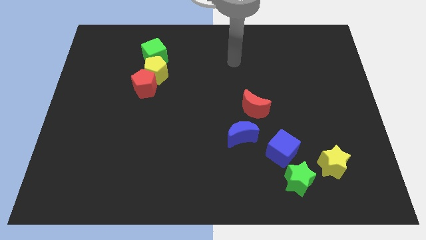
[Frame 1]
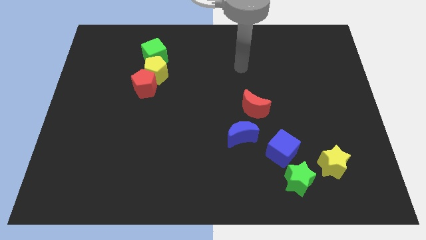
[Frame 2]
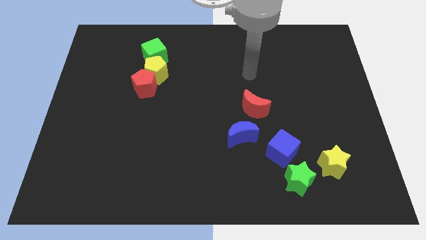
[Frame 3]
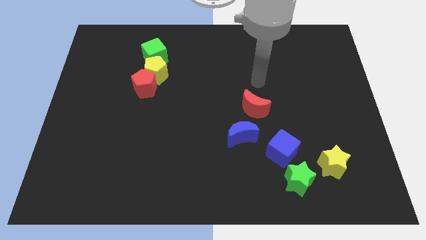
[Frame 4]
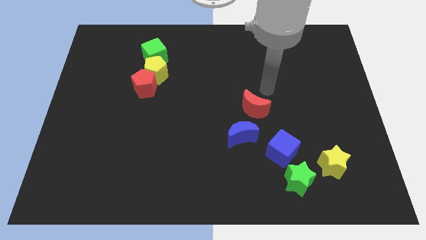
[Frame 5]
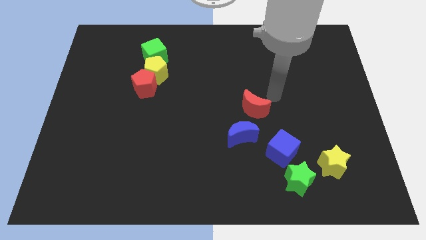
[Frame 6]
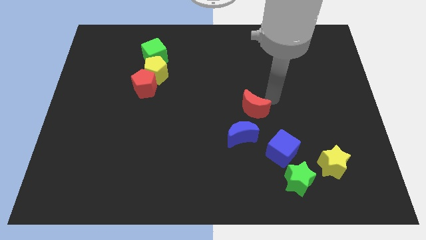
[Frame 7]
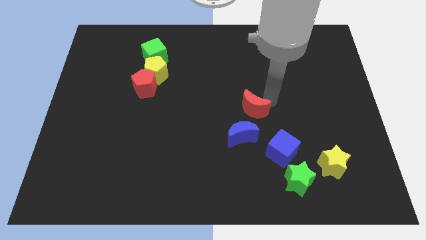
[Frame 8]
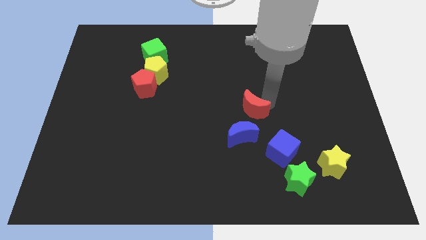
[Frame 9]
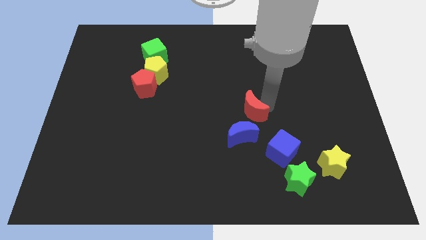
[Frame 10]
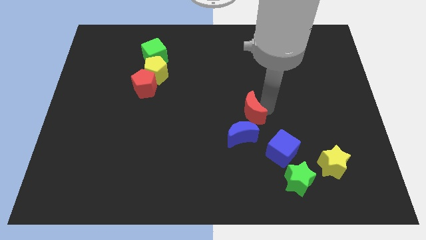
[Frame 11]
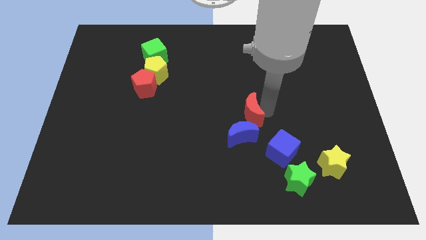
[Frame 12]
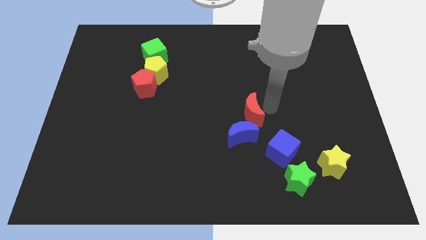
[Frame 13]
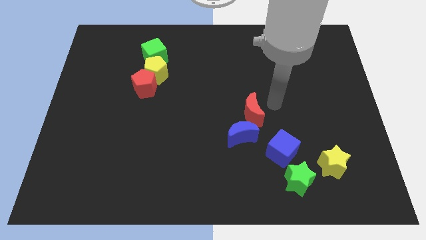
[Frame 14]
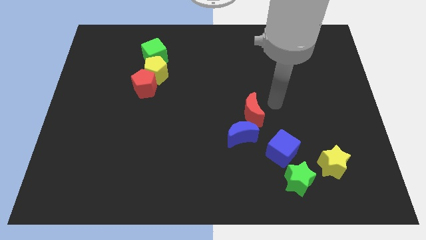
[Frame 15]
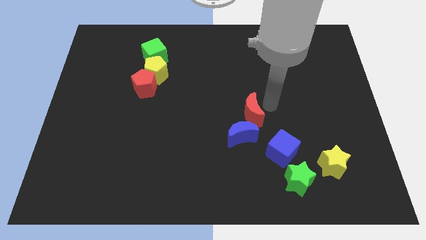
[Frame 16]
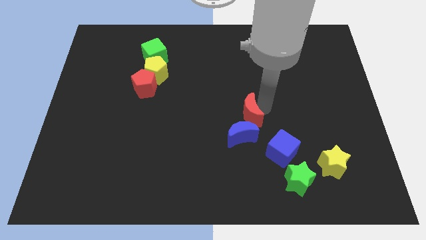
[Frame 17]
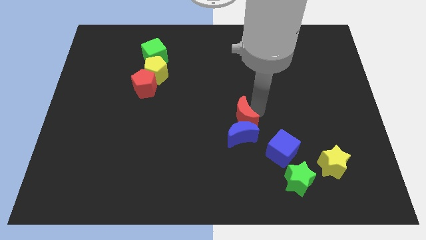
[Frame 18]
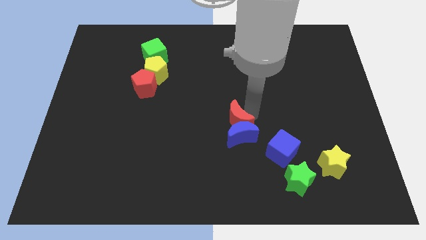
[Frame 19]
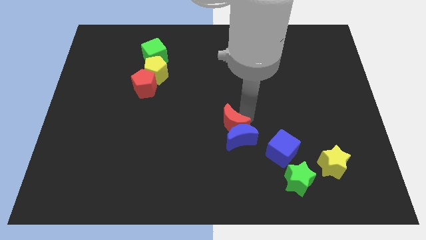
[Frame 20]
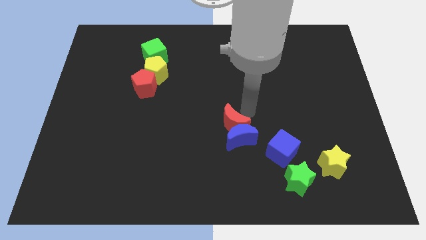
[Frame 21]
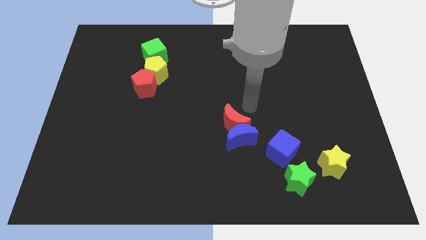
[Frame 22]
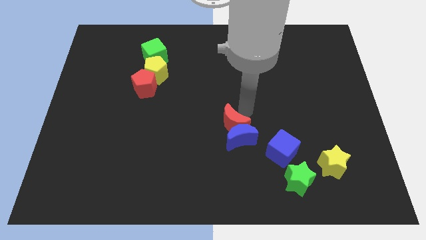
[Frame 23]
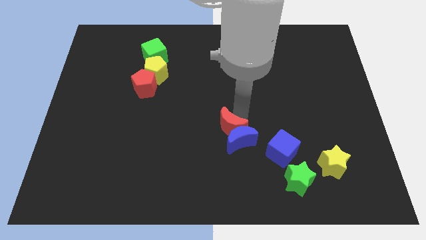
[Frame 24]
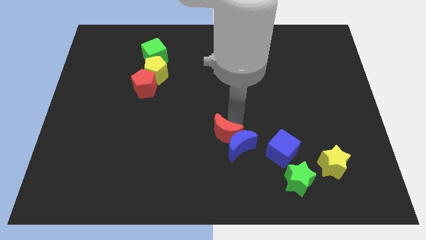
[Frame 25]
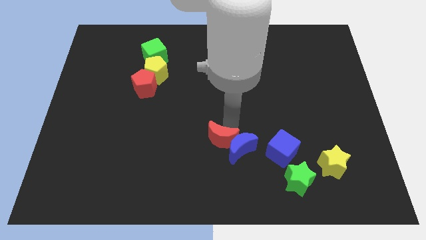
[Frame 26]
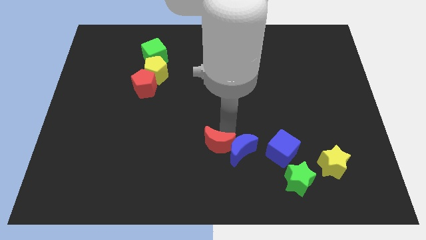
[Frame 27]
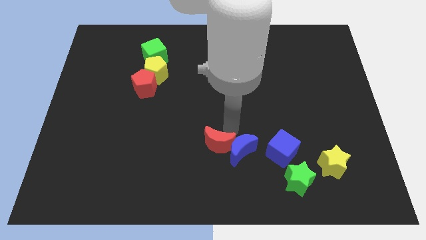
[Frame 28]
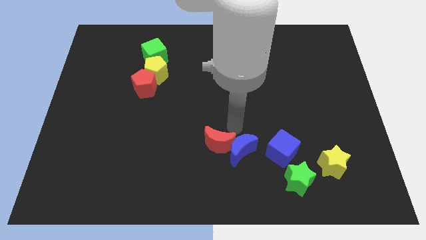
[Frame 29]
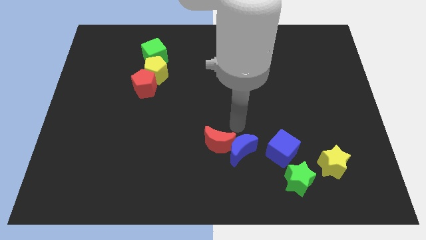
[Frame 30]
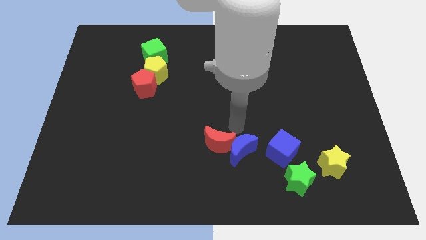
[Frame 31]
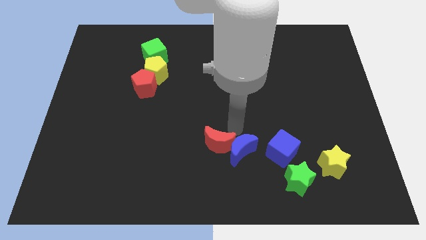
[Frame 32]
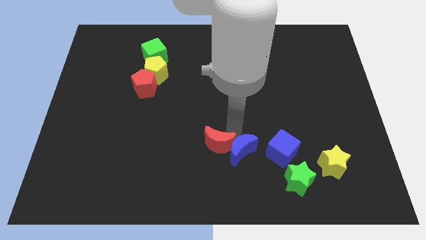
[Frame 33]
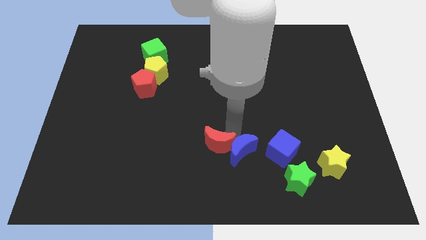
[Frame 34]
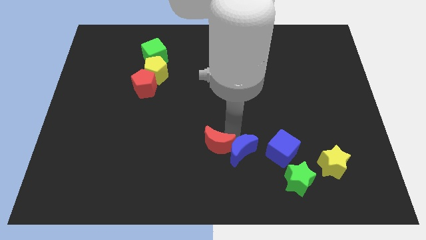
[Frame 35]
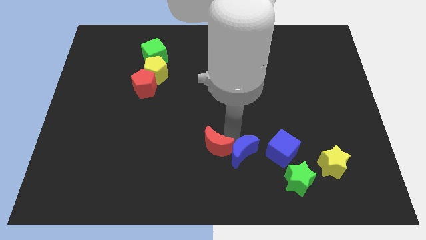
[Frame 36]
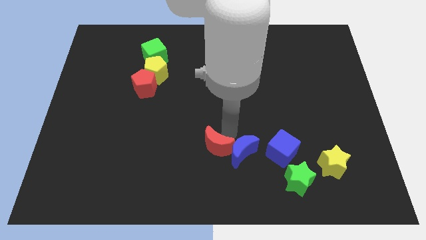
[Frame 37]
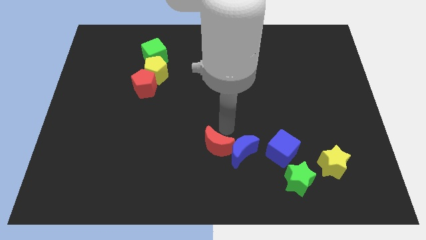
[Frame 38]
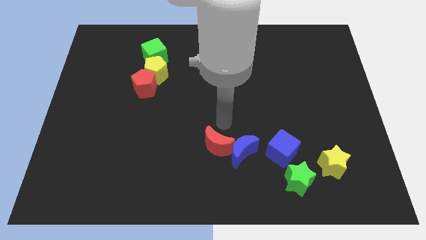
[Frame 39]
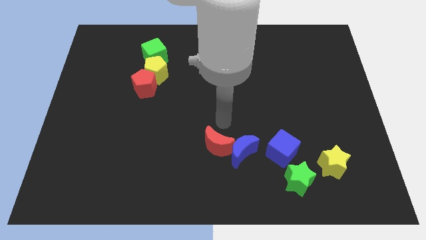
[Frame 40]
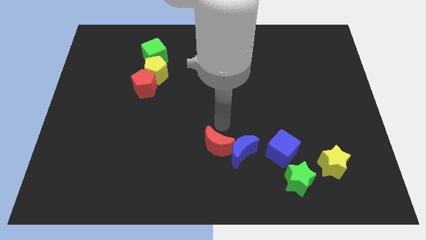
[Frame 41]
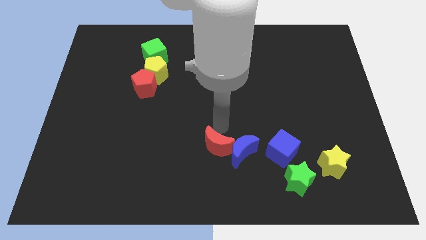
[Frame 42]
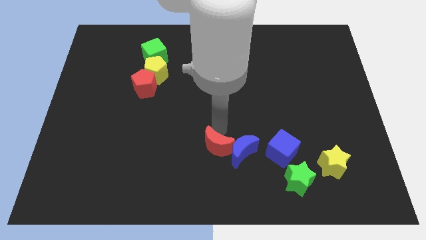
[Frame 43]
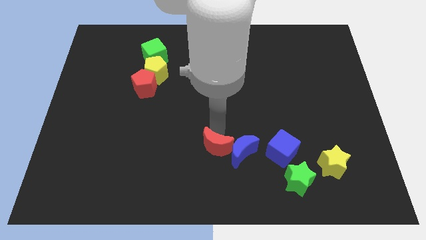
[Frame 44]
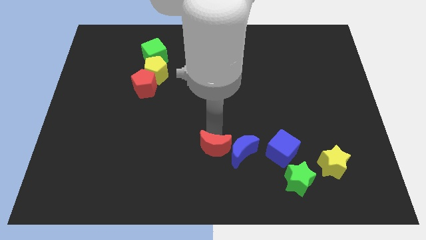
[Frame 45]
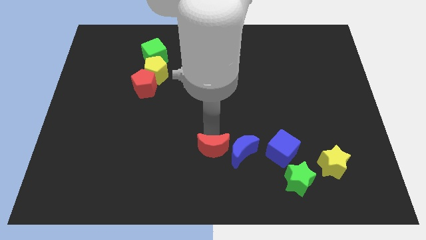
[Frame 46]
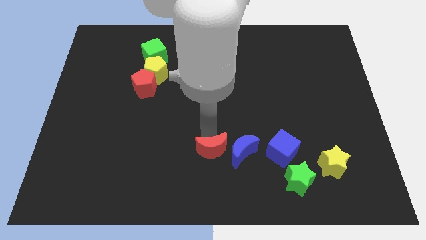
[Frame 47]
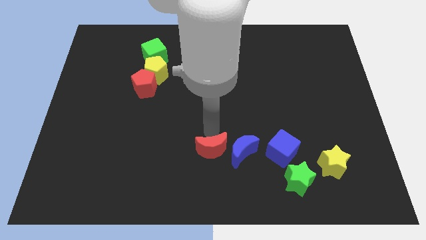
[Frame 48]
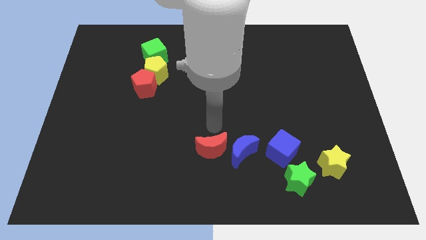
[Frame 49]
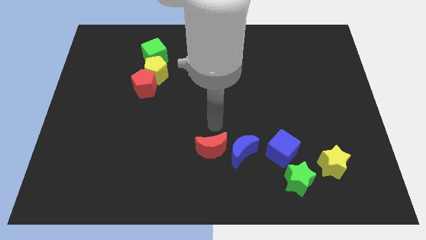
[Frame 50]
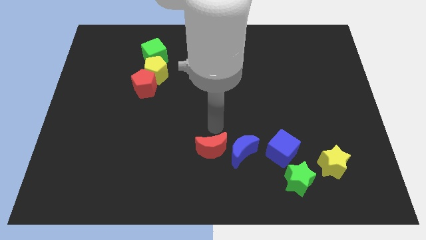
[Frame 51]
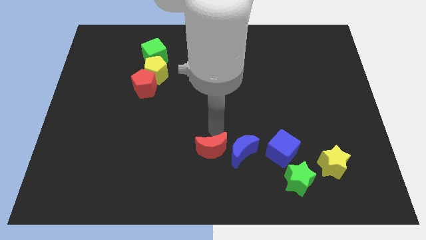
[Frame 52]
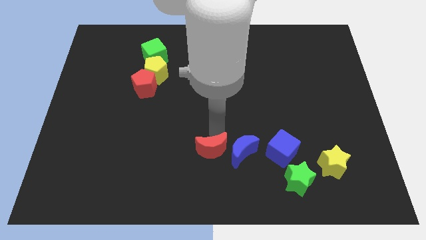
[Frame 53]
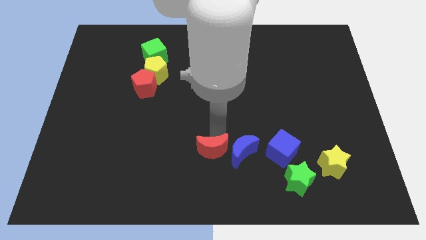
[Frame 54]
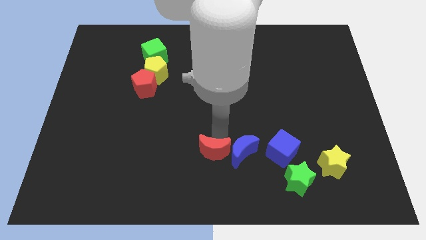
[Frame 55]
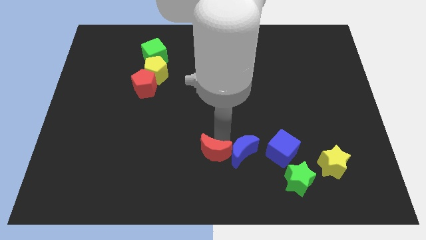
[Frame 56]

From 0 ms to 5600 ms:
slide the red moon to the bottom
